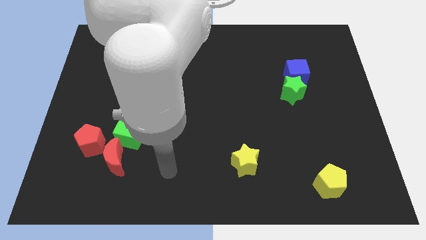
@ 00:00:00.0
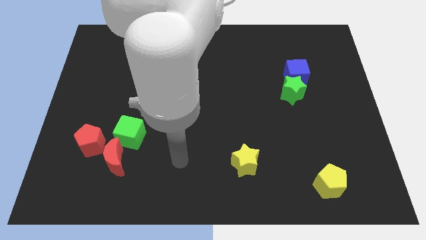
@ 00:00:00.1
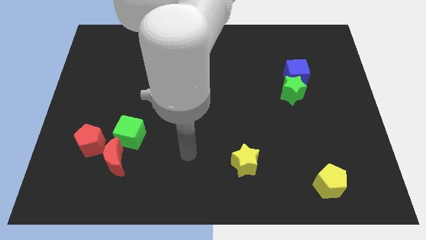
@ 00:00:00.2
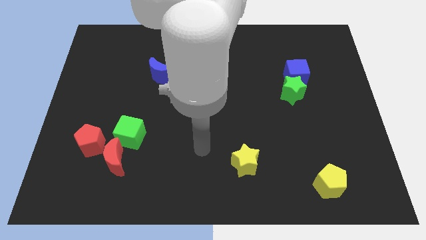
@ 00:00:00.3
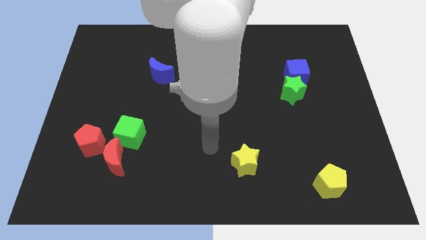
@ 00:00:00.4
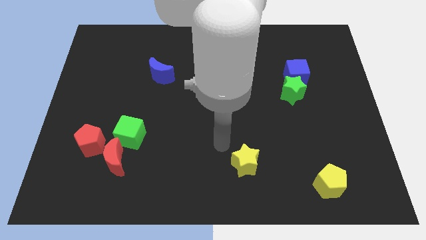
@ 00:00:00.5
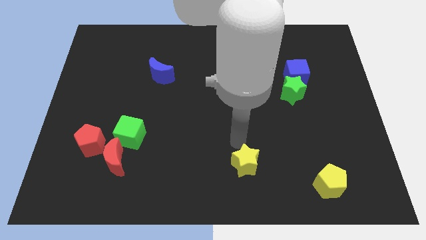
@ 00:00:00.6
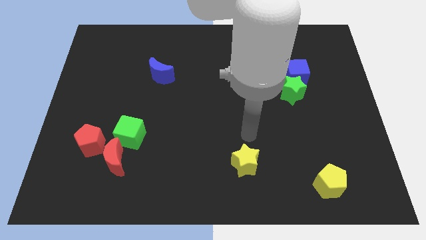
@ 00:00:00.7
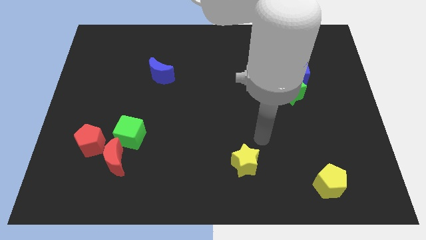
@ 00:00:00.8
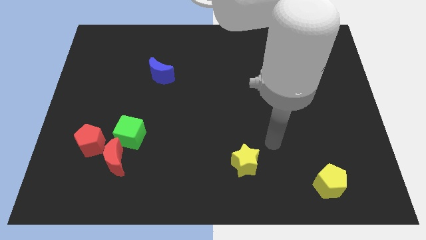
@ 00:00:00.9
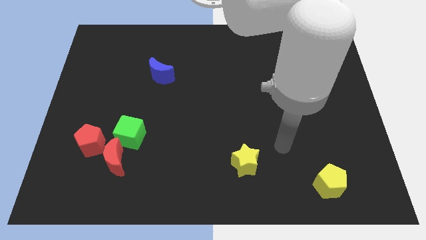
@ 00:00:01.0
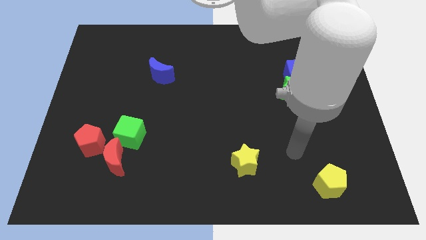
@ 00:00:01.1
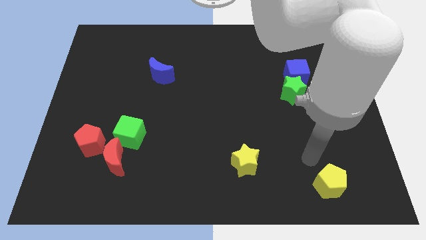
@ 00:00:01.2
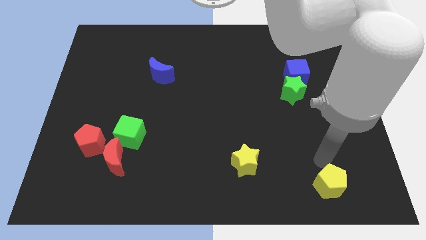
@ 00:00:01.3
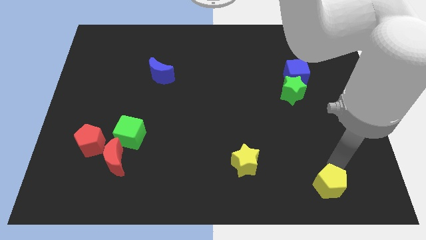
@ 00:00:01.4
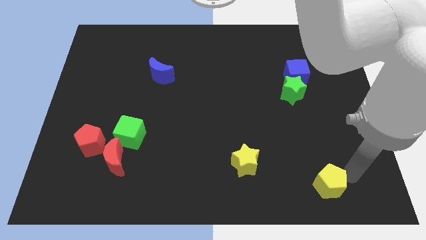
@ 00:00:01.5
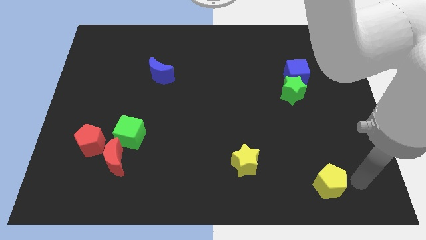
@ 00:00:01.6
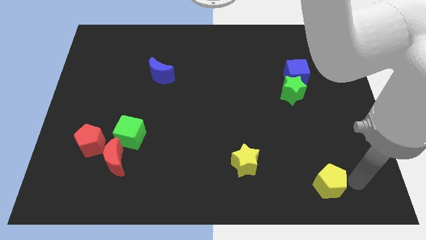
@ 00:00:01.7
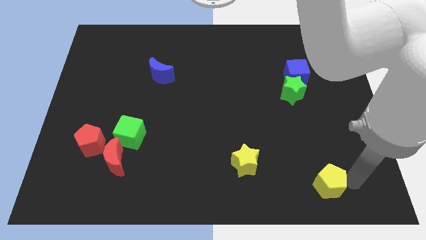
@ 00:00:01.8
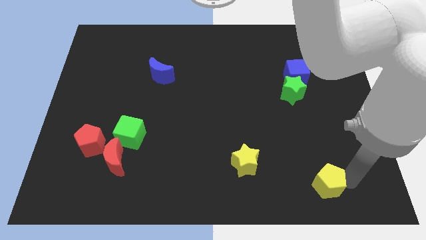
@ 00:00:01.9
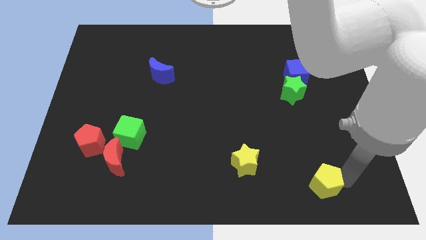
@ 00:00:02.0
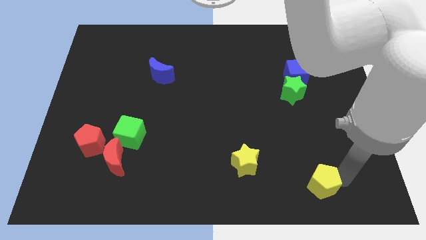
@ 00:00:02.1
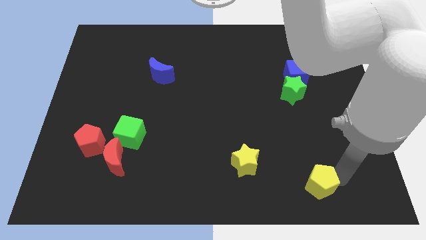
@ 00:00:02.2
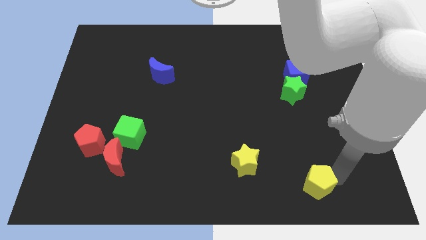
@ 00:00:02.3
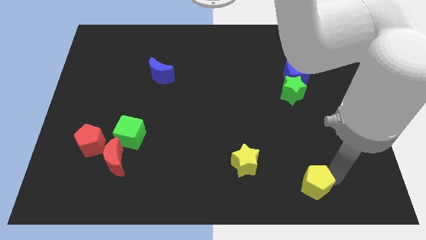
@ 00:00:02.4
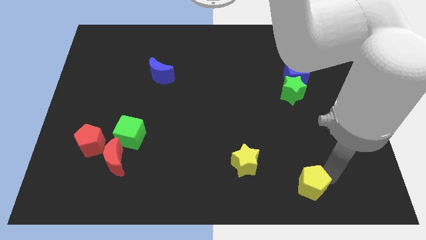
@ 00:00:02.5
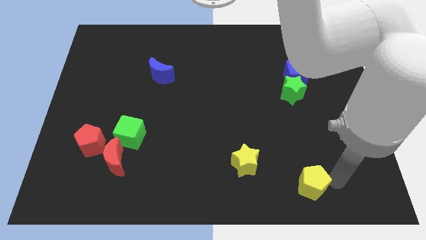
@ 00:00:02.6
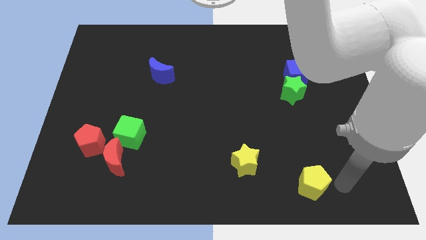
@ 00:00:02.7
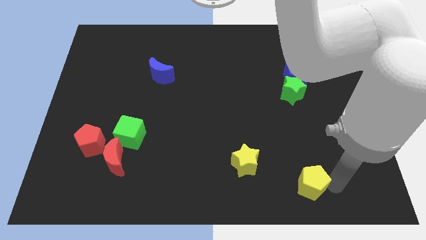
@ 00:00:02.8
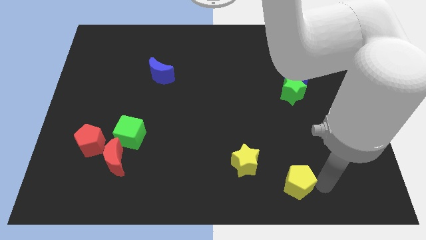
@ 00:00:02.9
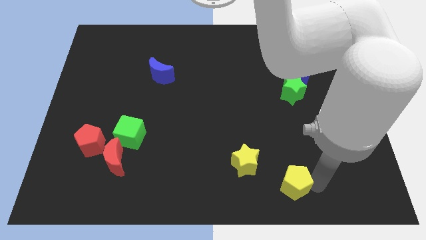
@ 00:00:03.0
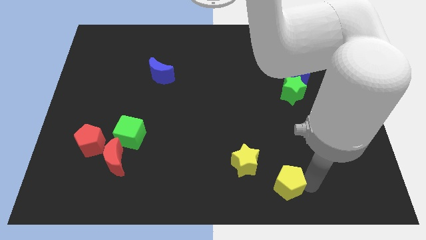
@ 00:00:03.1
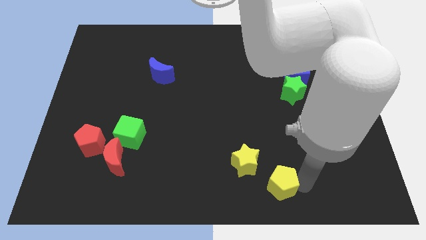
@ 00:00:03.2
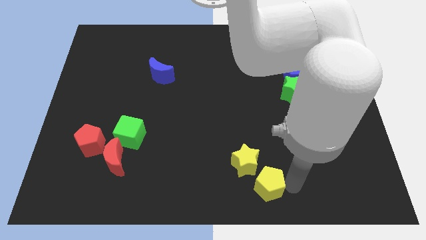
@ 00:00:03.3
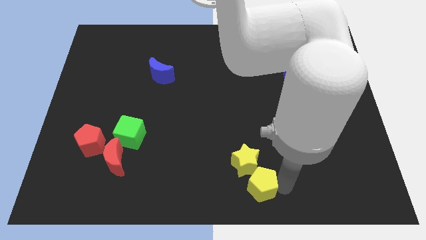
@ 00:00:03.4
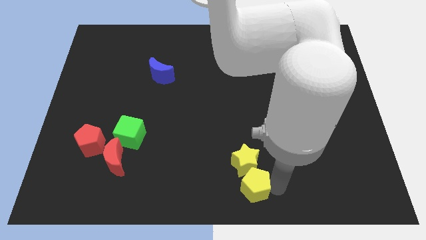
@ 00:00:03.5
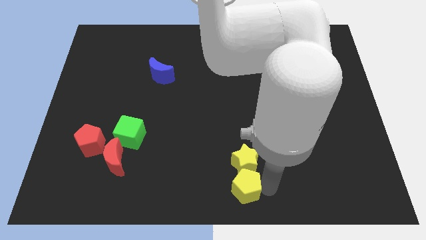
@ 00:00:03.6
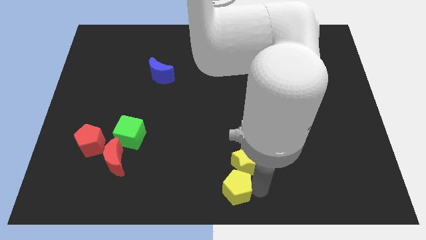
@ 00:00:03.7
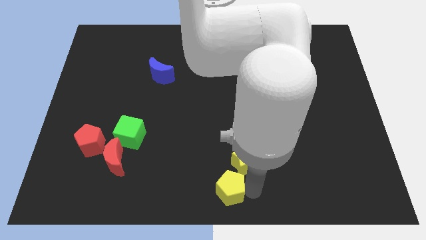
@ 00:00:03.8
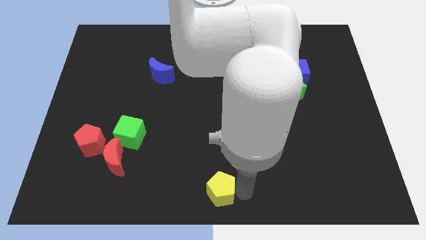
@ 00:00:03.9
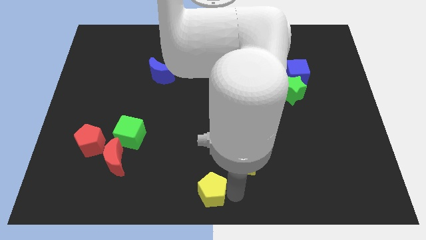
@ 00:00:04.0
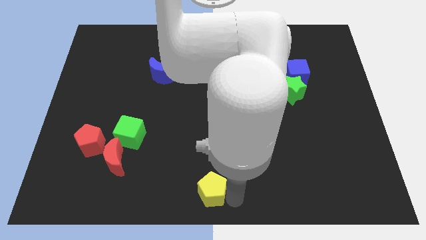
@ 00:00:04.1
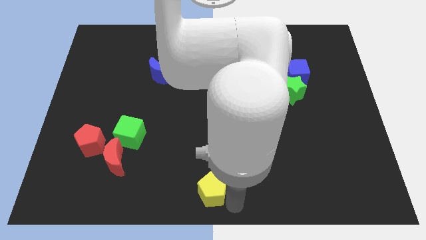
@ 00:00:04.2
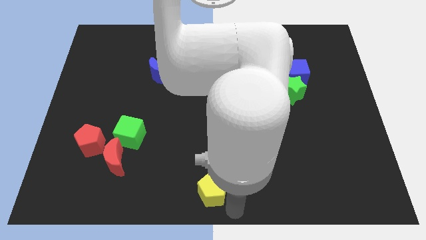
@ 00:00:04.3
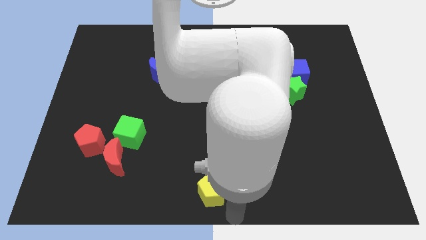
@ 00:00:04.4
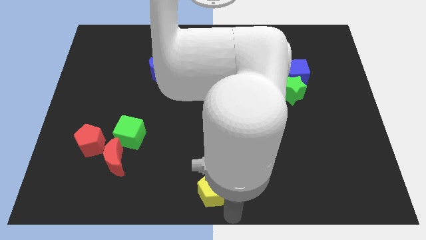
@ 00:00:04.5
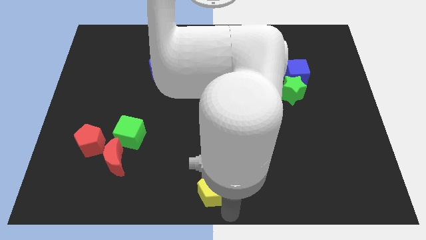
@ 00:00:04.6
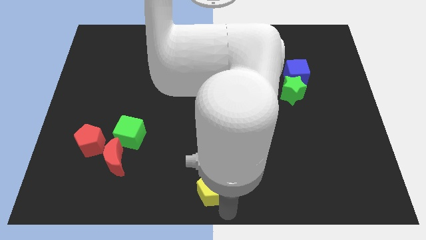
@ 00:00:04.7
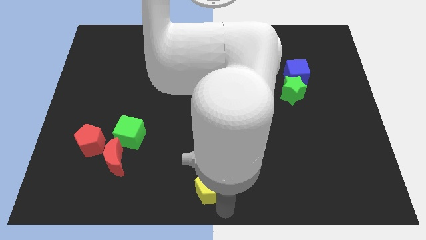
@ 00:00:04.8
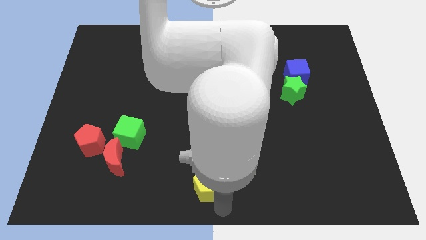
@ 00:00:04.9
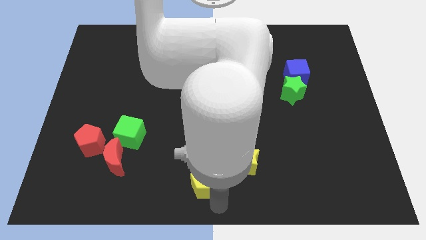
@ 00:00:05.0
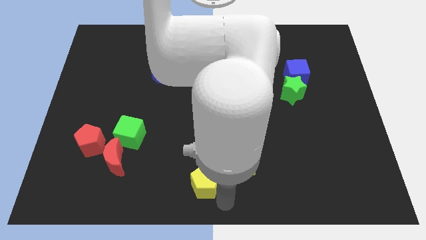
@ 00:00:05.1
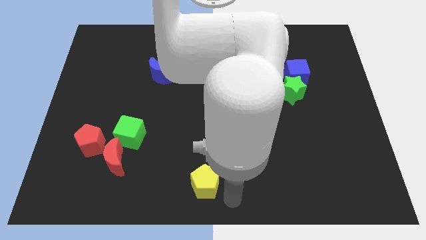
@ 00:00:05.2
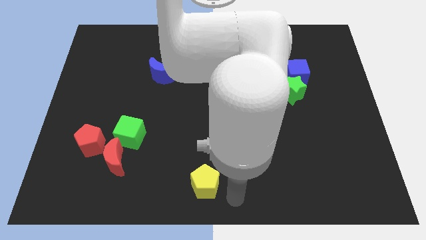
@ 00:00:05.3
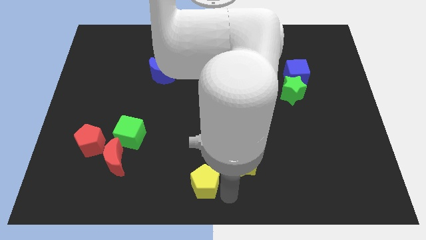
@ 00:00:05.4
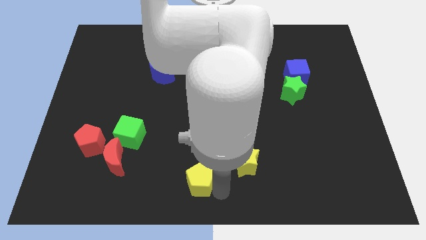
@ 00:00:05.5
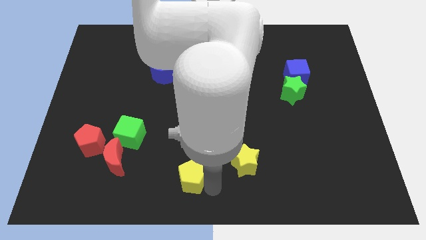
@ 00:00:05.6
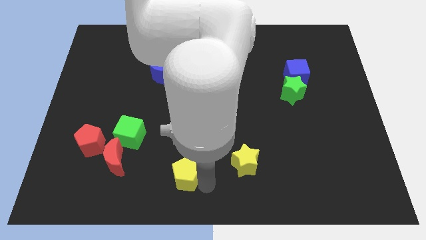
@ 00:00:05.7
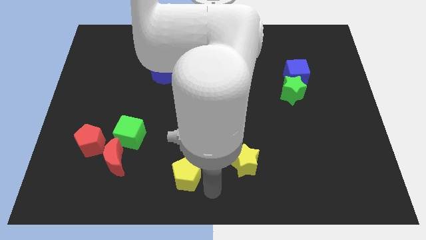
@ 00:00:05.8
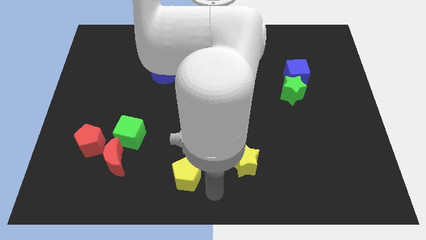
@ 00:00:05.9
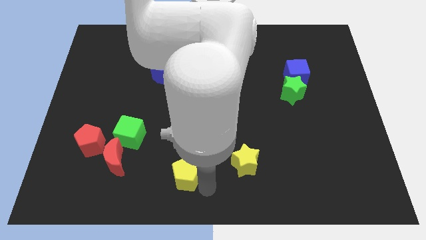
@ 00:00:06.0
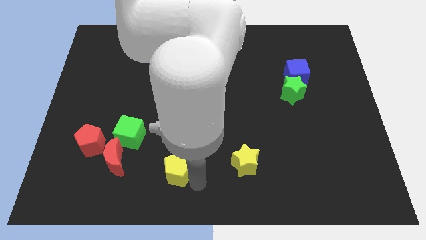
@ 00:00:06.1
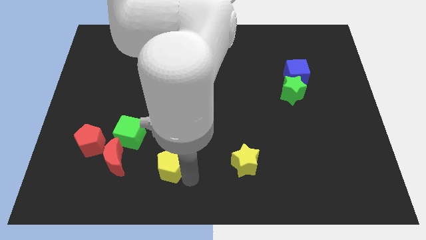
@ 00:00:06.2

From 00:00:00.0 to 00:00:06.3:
move the yellow pentagon to the bottom right of the green cube
